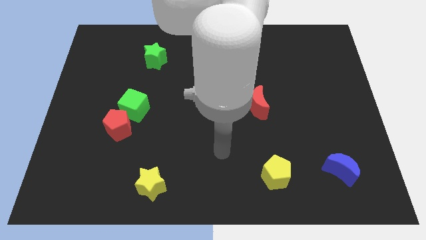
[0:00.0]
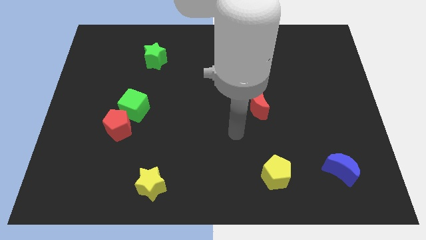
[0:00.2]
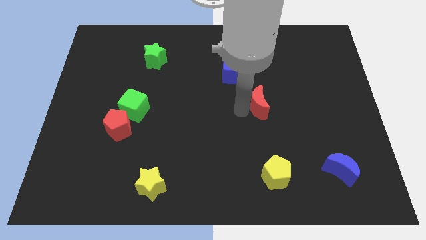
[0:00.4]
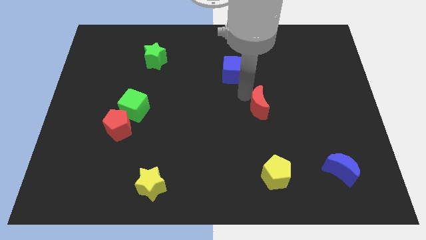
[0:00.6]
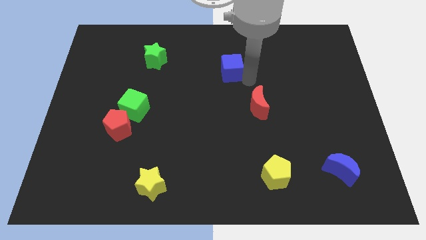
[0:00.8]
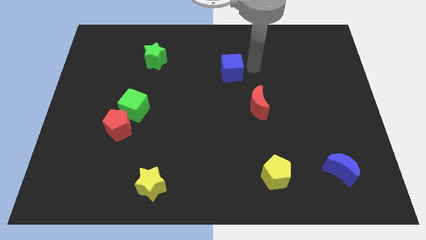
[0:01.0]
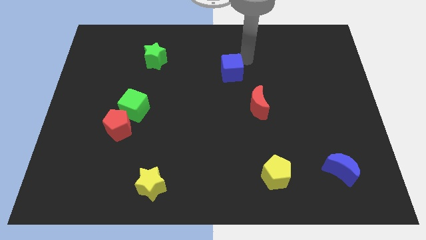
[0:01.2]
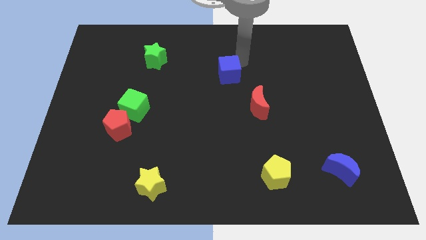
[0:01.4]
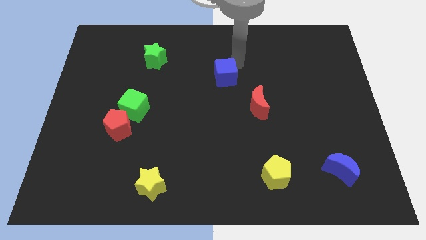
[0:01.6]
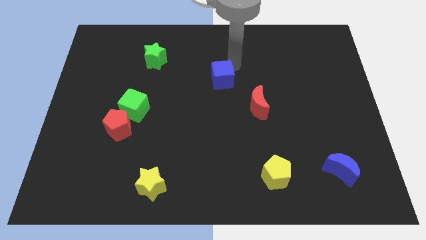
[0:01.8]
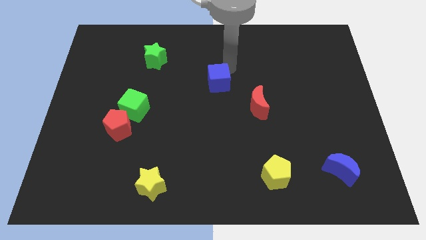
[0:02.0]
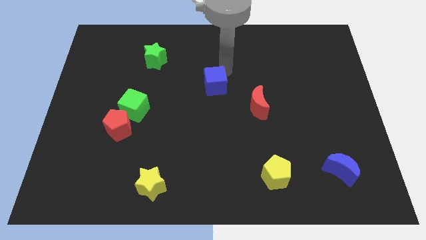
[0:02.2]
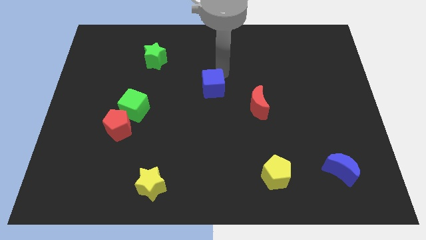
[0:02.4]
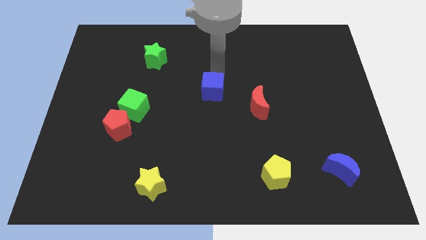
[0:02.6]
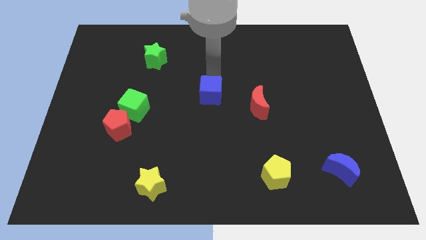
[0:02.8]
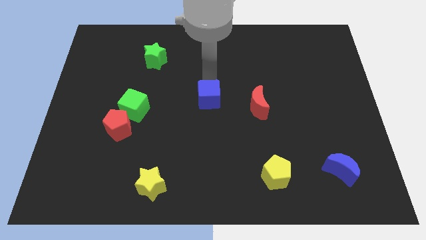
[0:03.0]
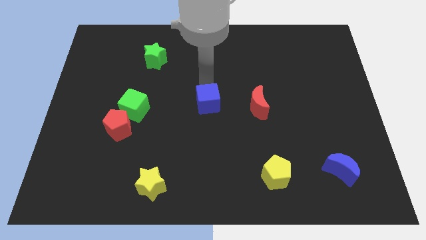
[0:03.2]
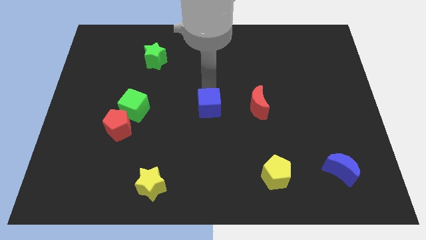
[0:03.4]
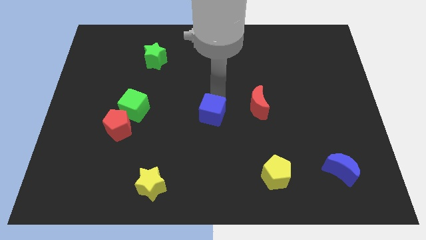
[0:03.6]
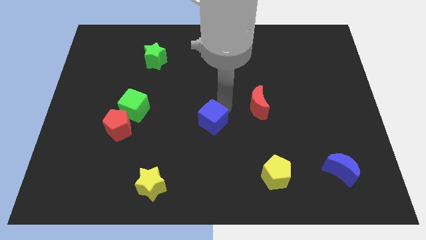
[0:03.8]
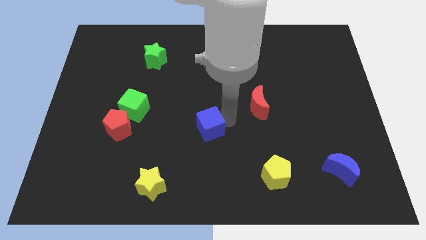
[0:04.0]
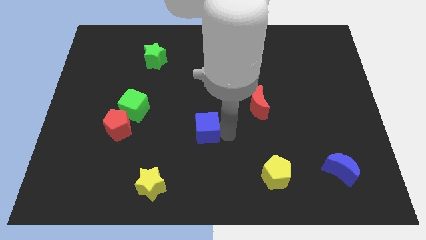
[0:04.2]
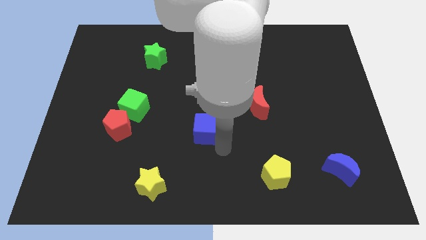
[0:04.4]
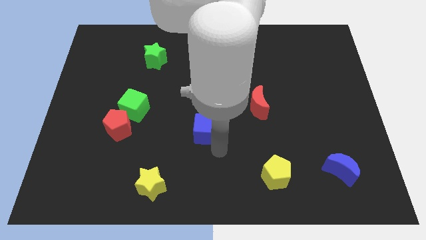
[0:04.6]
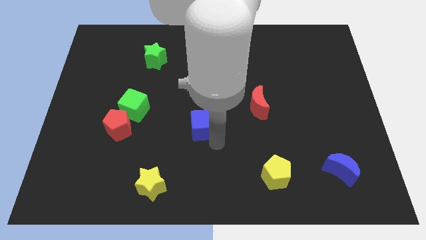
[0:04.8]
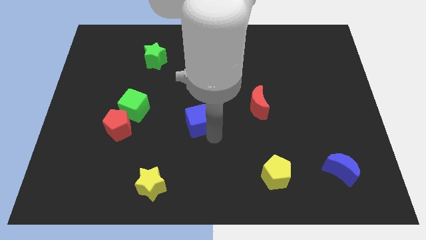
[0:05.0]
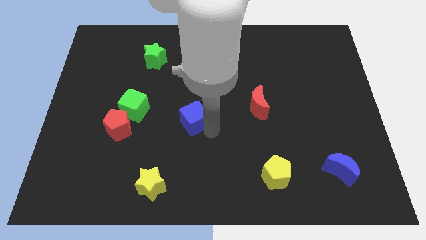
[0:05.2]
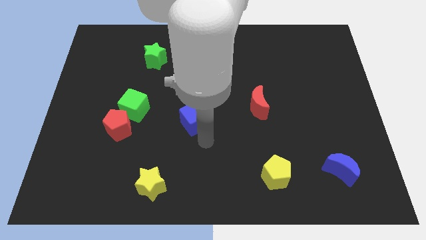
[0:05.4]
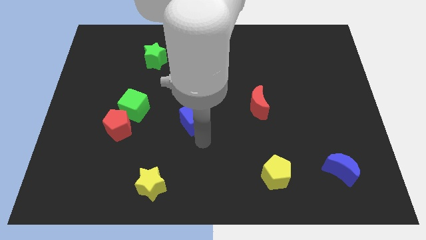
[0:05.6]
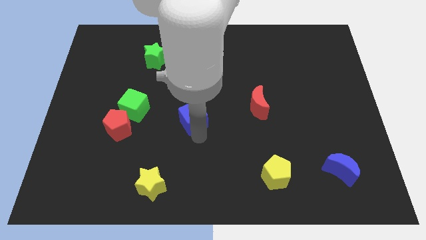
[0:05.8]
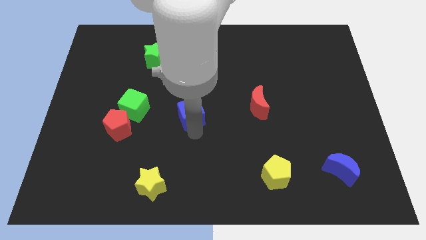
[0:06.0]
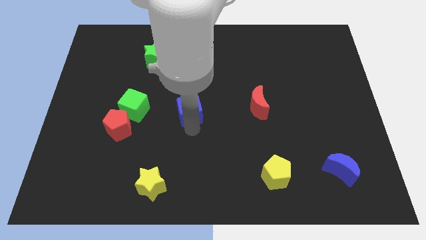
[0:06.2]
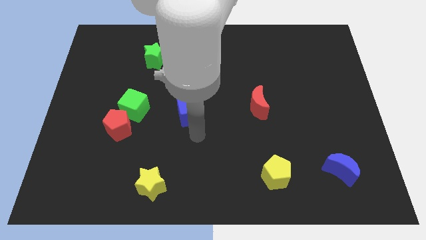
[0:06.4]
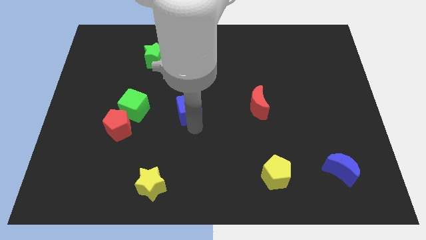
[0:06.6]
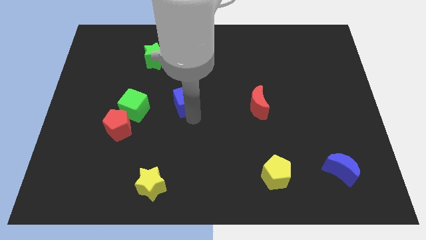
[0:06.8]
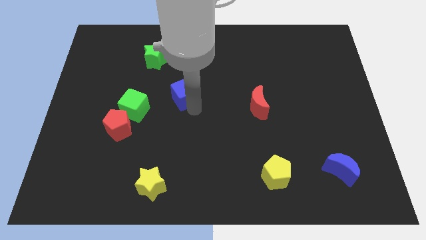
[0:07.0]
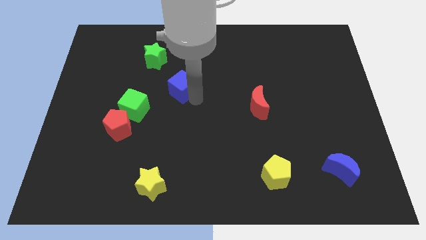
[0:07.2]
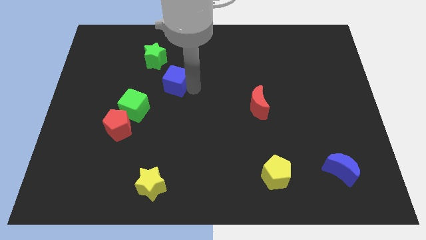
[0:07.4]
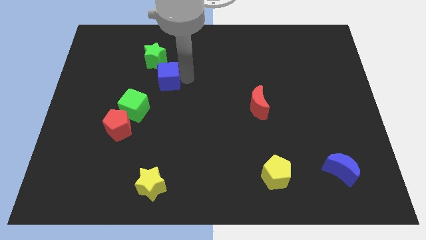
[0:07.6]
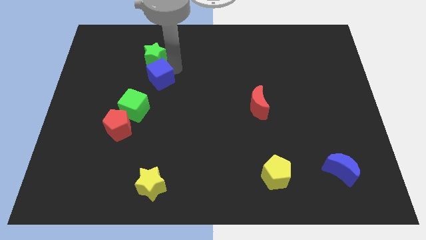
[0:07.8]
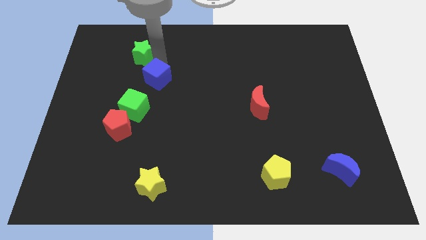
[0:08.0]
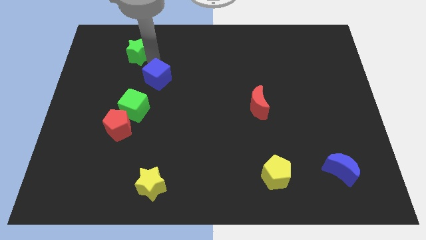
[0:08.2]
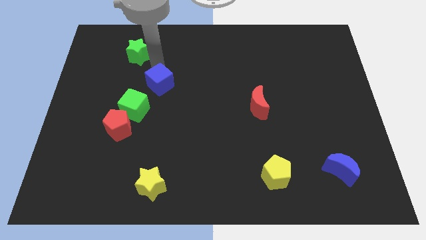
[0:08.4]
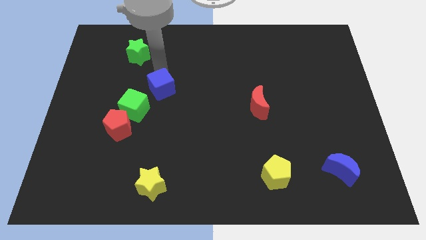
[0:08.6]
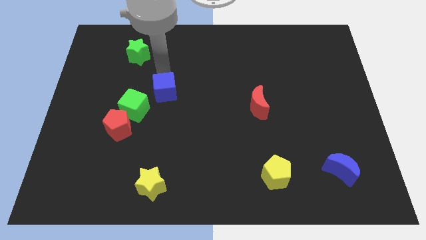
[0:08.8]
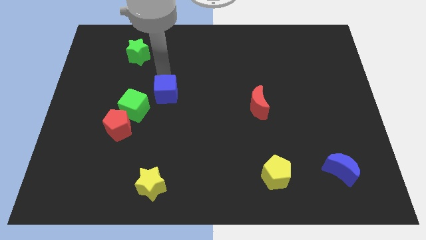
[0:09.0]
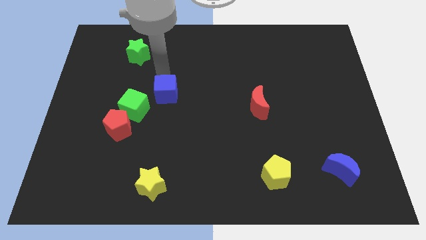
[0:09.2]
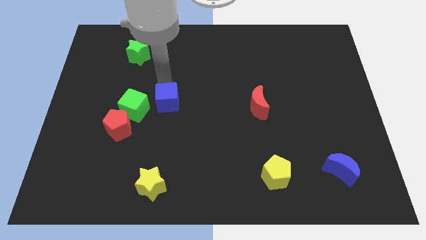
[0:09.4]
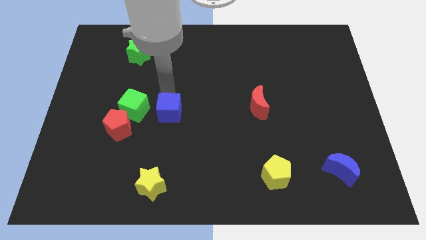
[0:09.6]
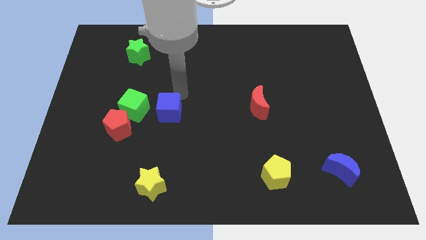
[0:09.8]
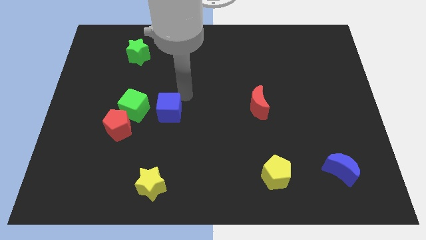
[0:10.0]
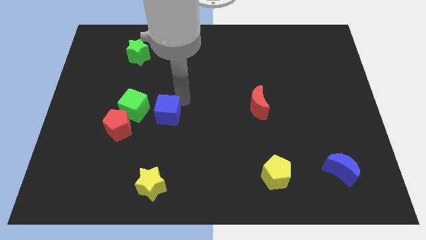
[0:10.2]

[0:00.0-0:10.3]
put the blue cube to the bottom right side of the green cube

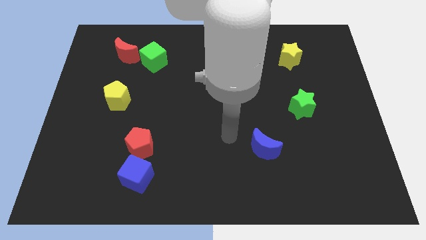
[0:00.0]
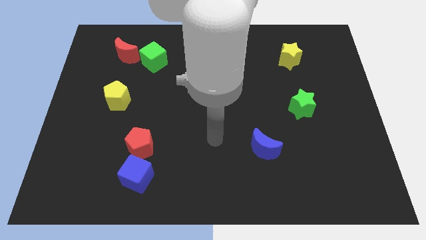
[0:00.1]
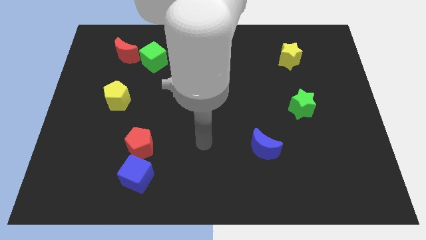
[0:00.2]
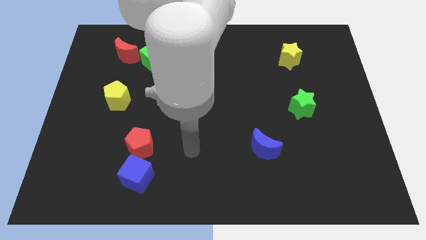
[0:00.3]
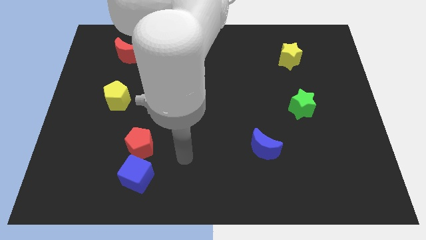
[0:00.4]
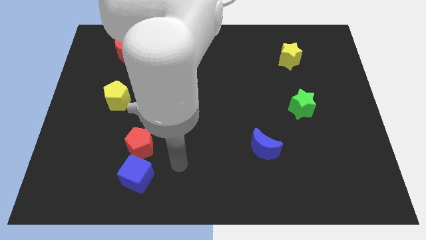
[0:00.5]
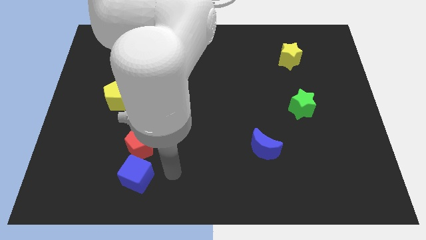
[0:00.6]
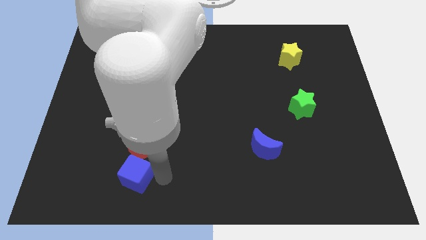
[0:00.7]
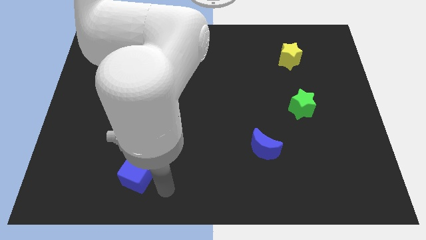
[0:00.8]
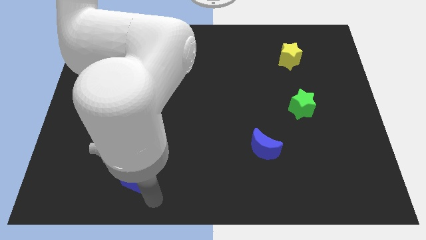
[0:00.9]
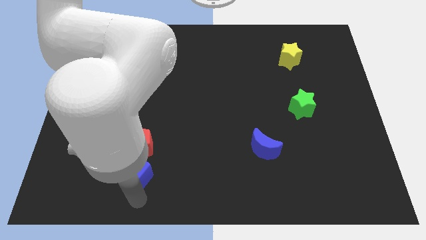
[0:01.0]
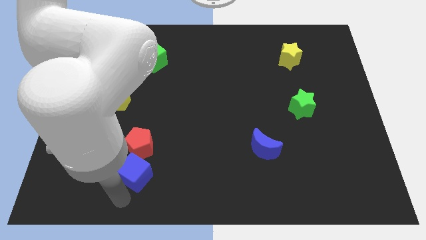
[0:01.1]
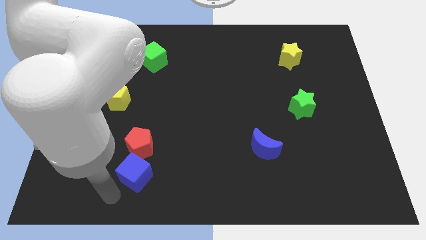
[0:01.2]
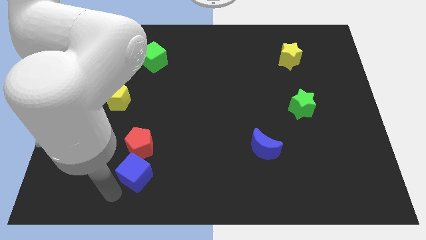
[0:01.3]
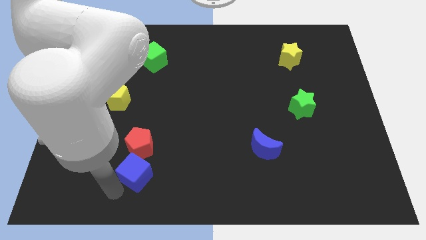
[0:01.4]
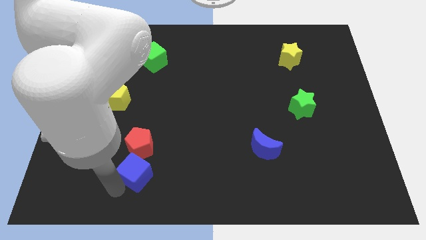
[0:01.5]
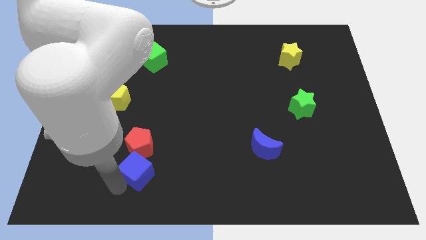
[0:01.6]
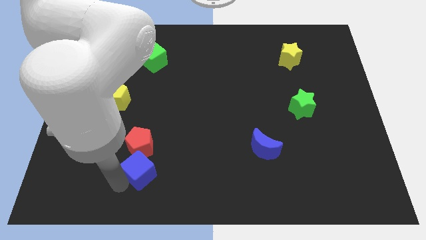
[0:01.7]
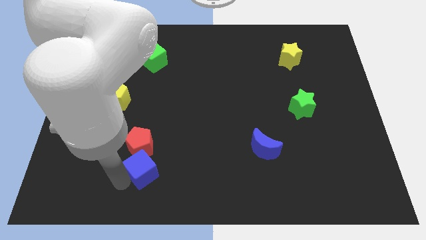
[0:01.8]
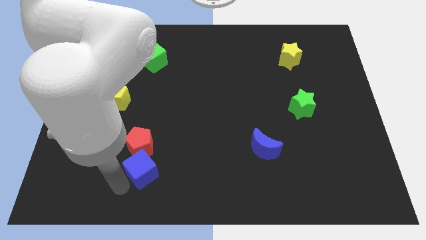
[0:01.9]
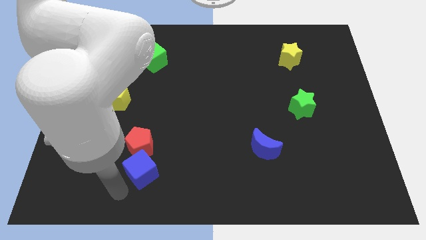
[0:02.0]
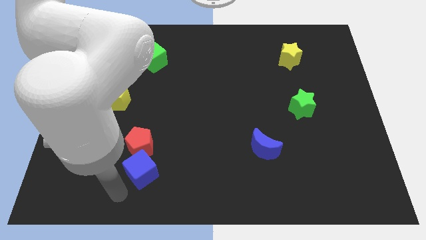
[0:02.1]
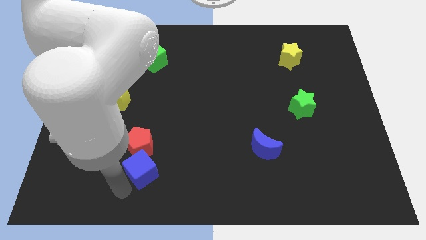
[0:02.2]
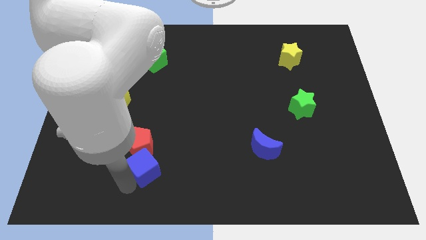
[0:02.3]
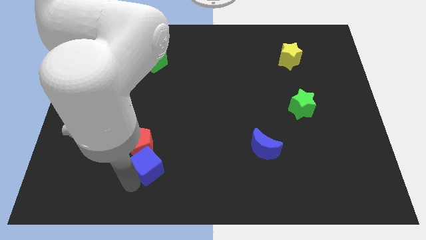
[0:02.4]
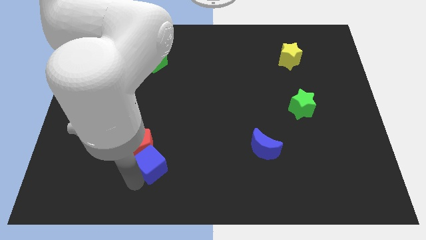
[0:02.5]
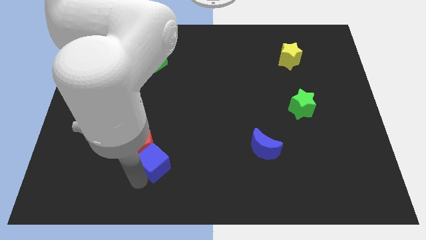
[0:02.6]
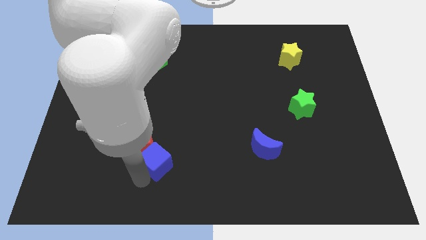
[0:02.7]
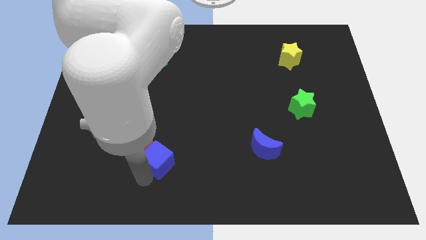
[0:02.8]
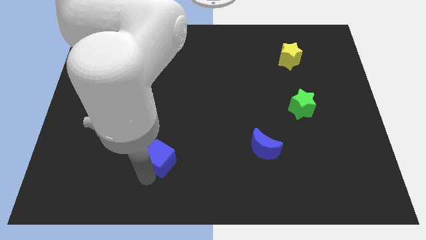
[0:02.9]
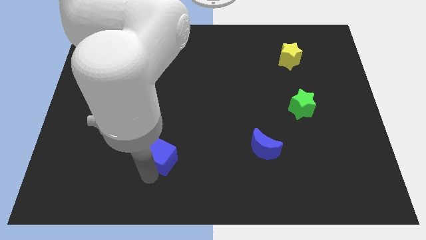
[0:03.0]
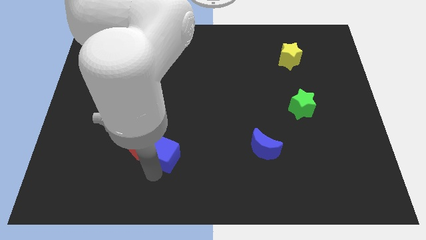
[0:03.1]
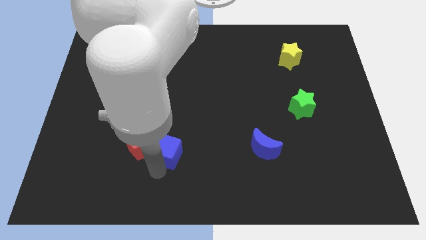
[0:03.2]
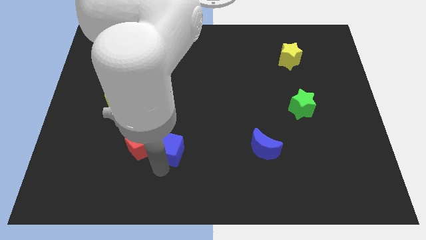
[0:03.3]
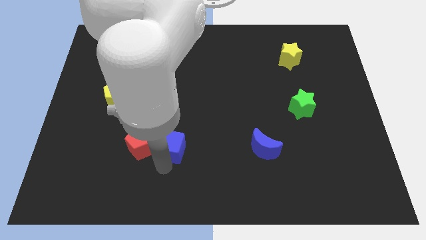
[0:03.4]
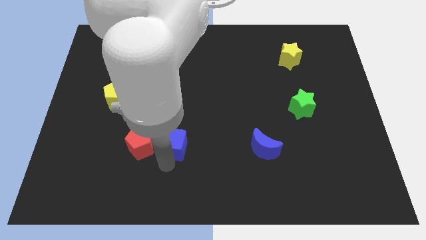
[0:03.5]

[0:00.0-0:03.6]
move the blue cube to the top right of the red pentagon
